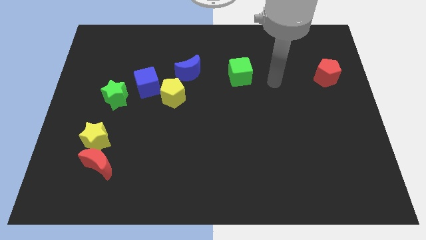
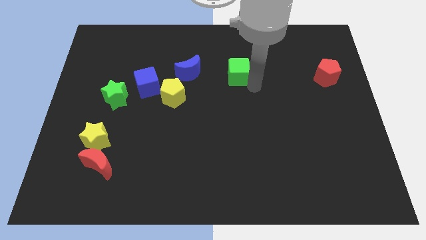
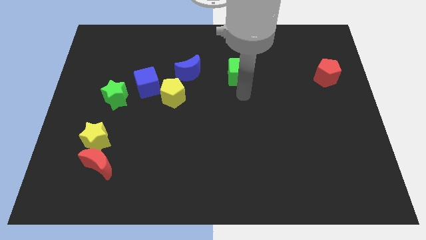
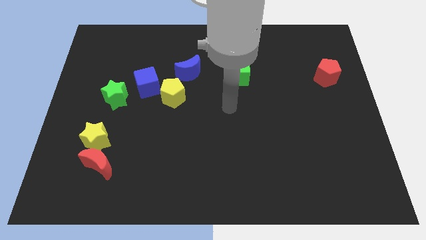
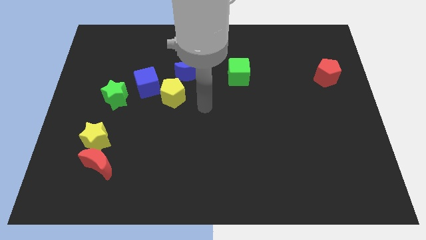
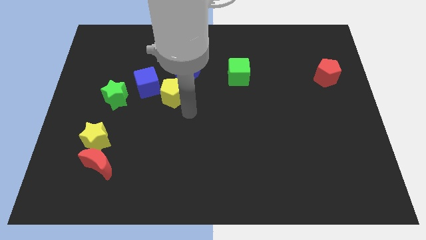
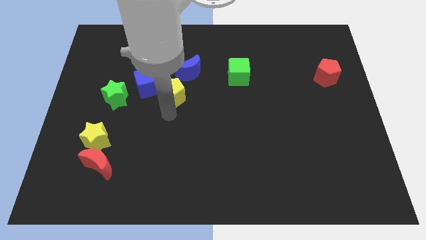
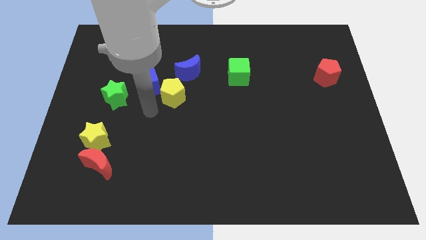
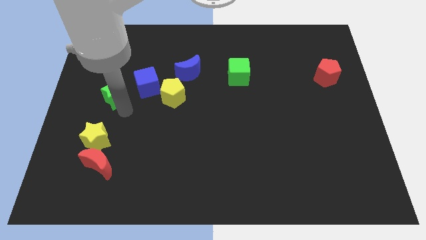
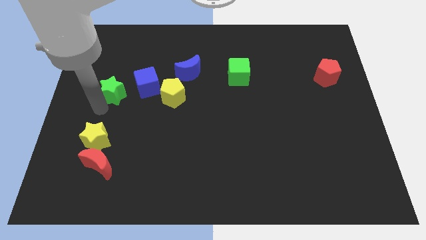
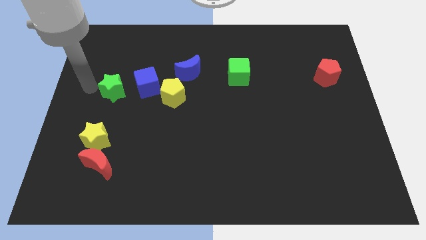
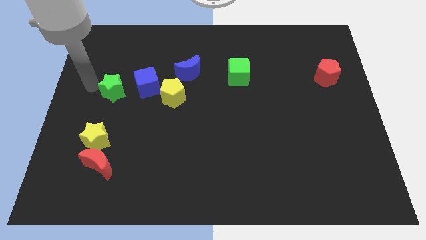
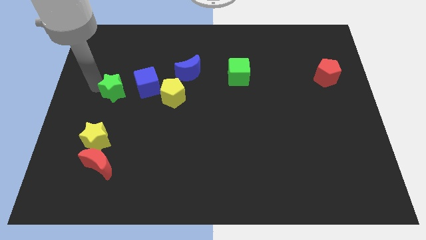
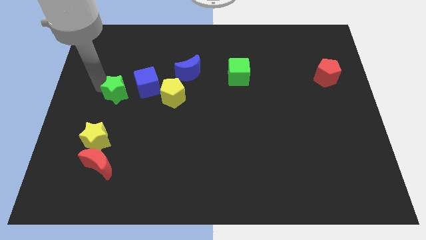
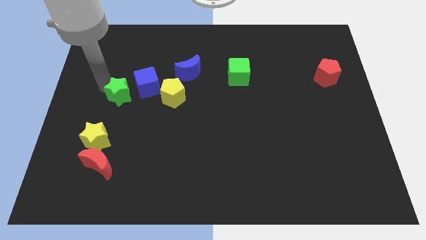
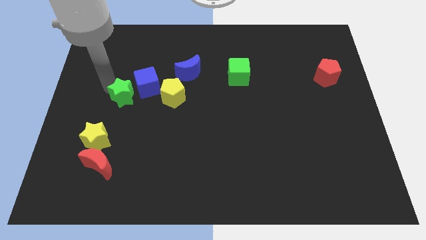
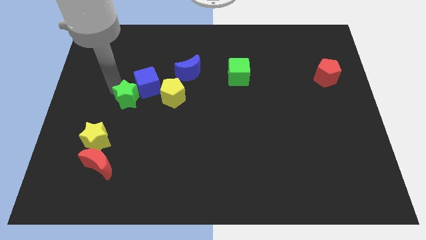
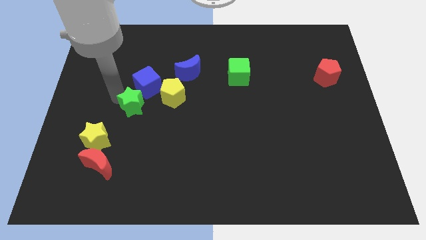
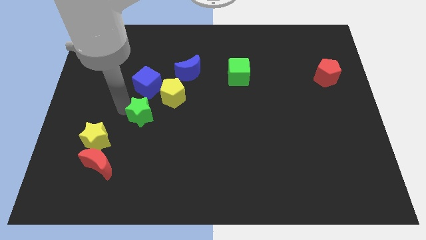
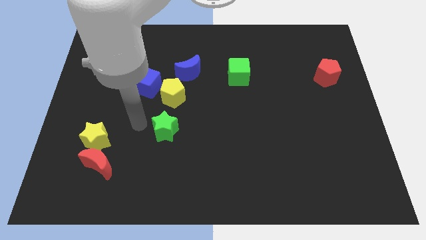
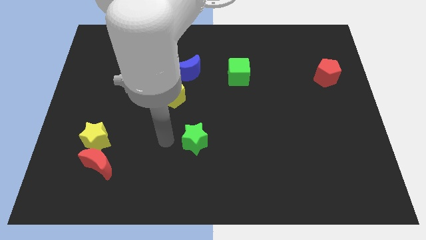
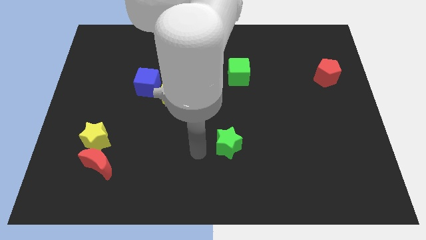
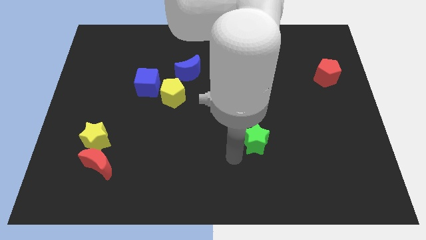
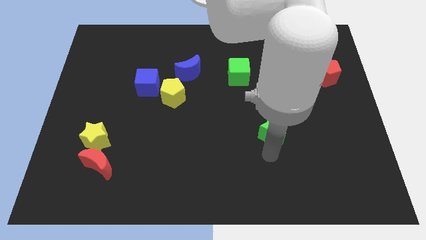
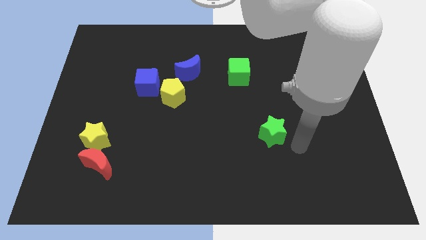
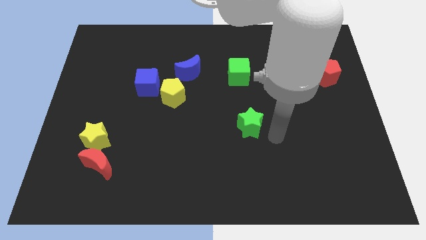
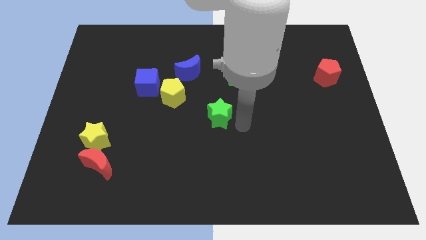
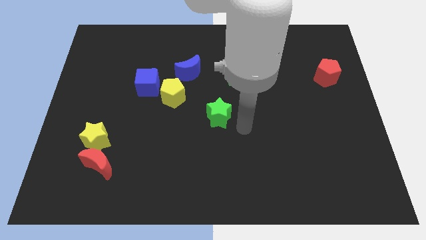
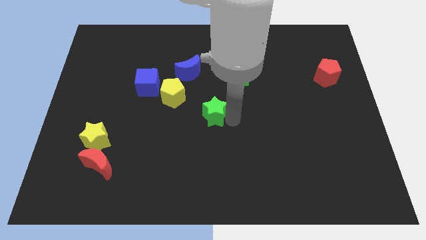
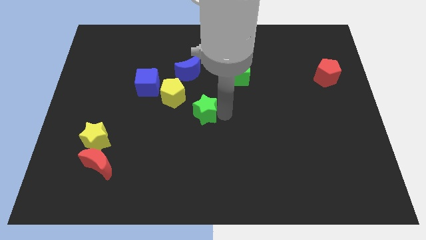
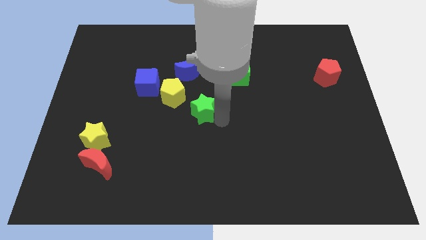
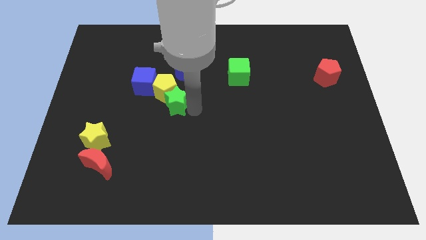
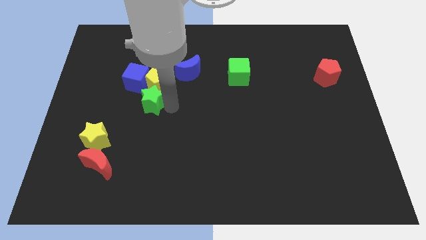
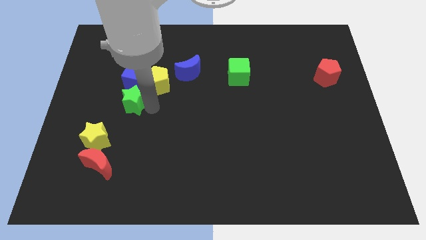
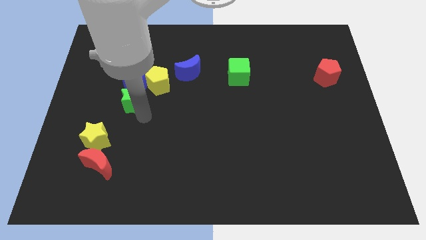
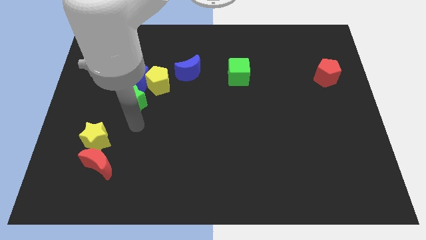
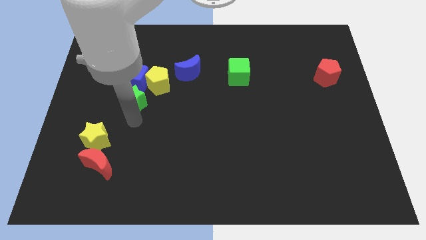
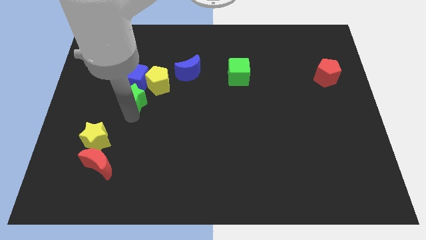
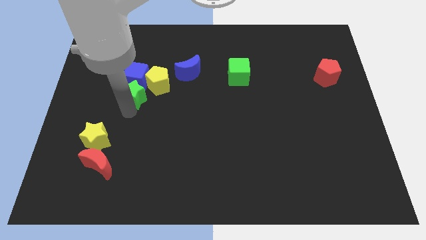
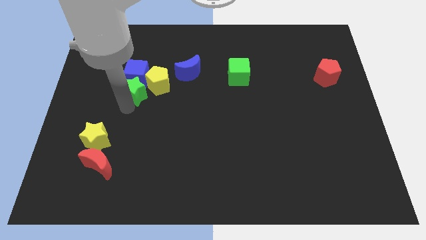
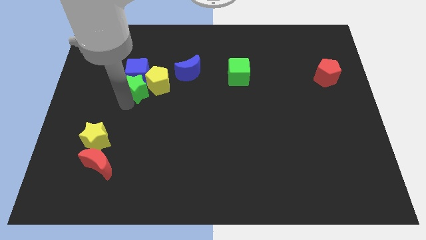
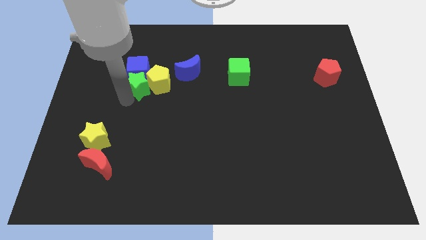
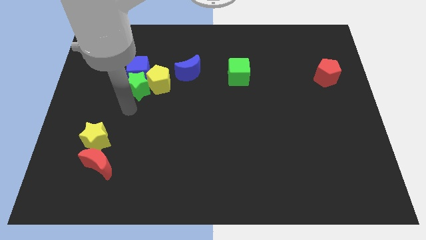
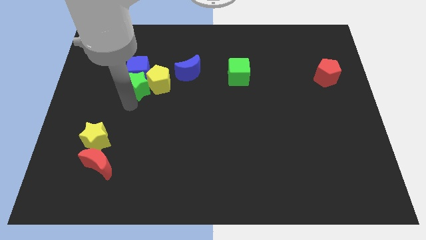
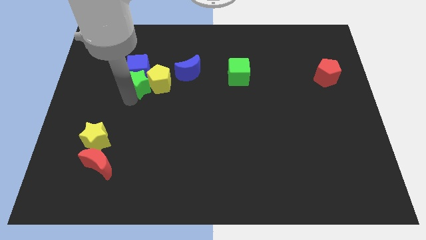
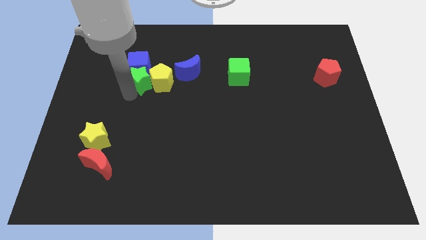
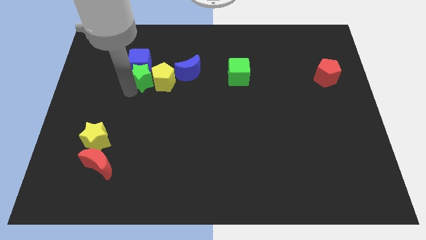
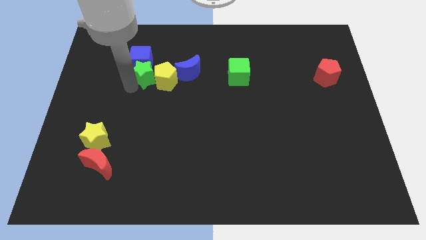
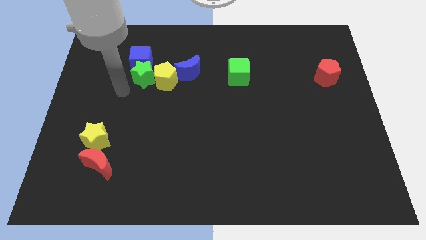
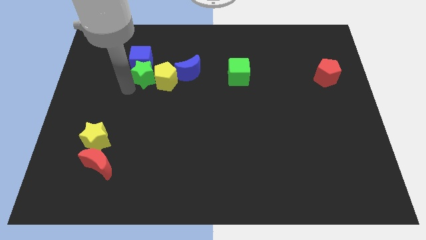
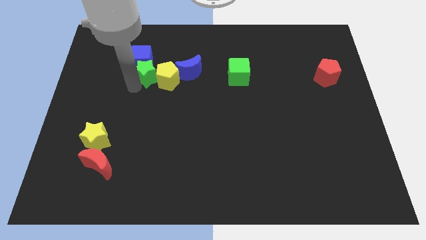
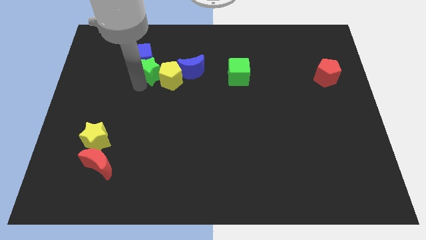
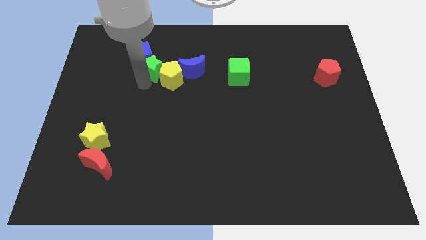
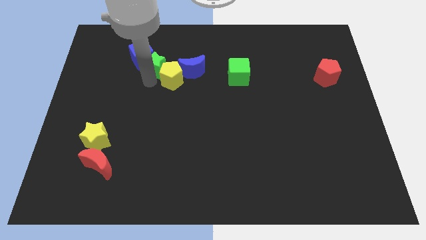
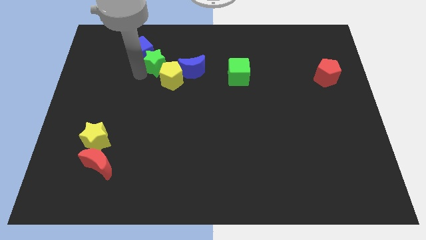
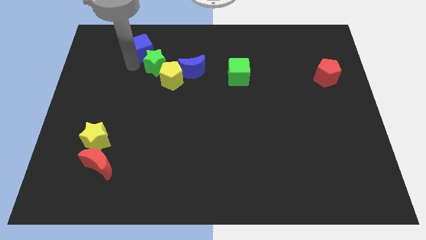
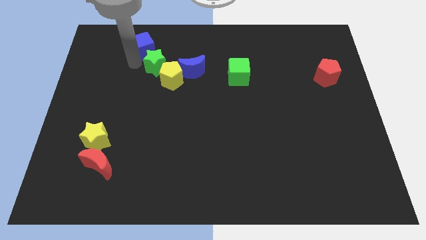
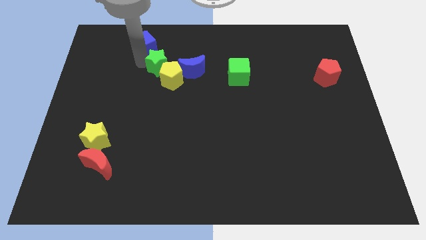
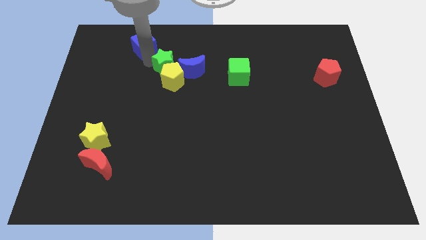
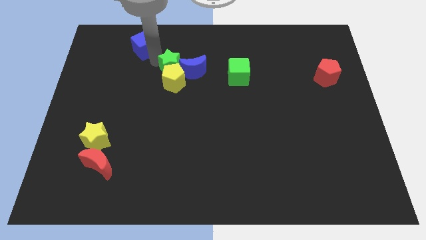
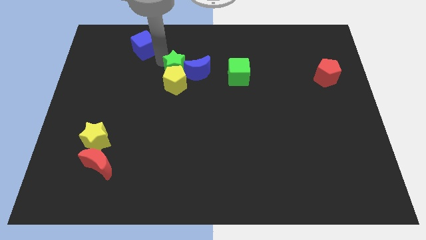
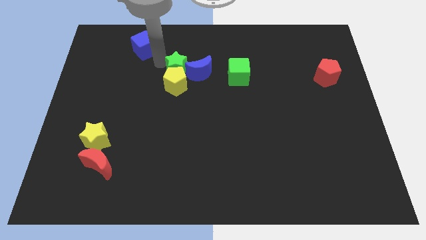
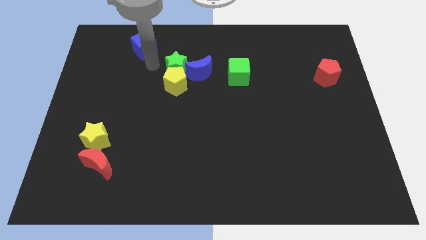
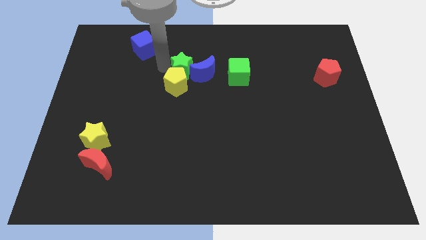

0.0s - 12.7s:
put the green star to the blue moon
